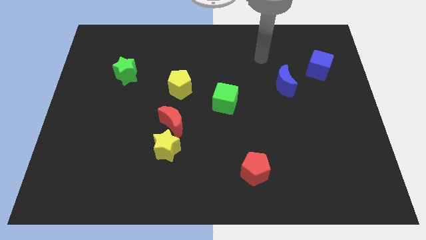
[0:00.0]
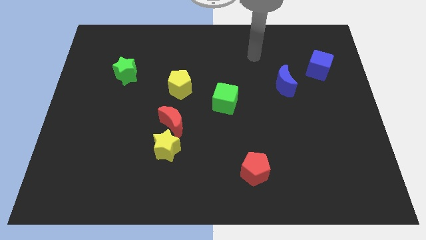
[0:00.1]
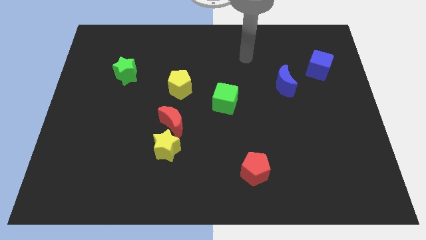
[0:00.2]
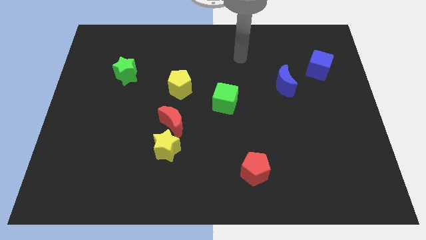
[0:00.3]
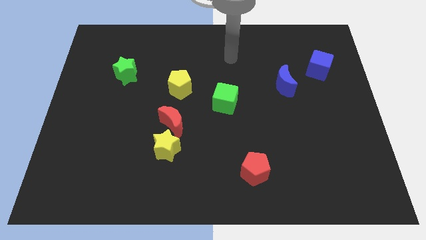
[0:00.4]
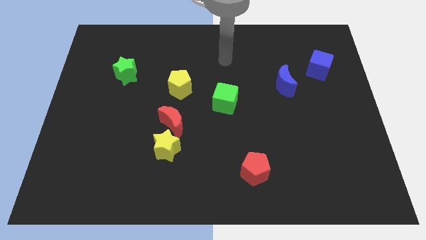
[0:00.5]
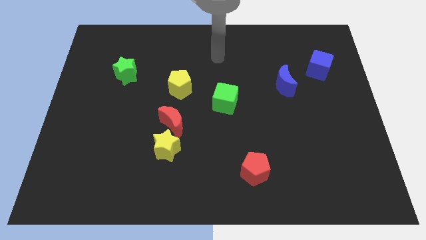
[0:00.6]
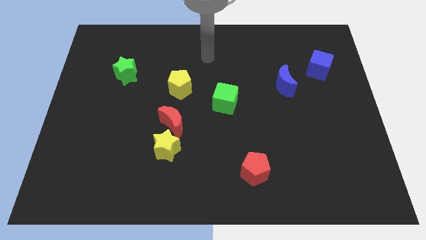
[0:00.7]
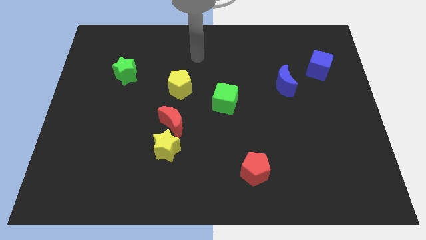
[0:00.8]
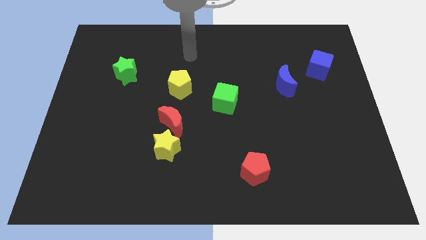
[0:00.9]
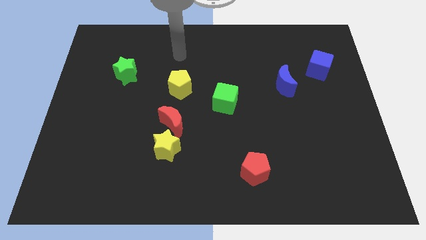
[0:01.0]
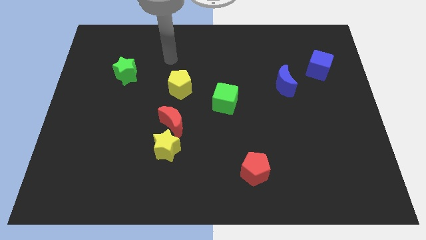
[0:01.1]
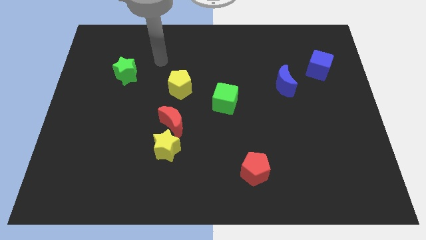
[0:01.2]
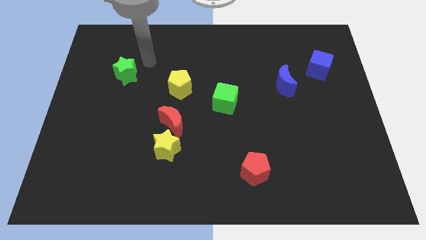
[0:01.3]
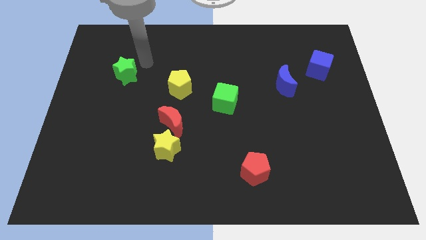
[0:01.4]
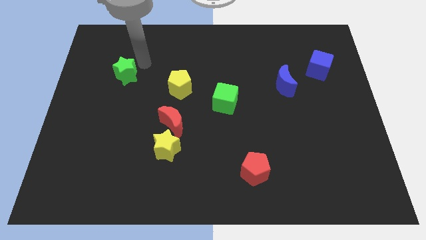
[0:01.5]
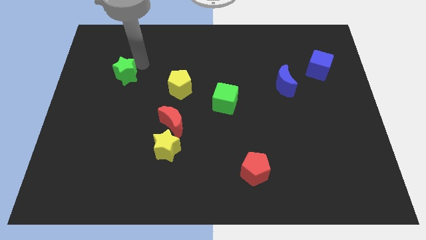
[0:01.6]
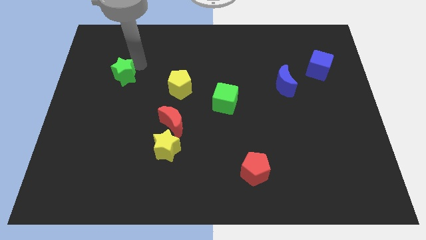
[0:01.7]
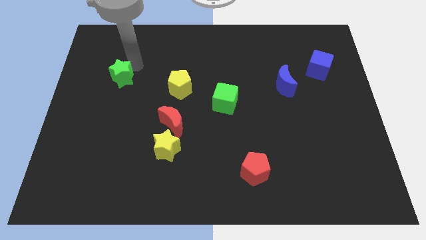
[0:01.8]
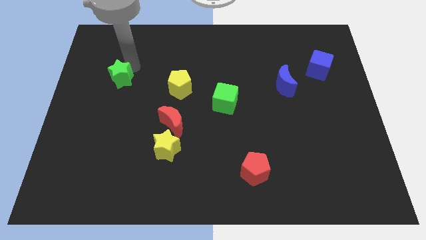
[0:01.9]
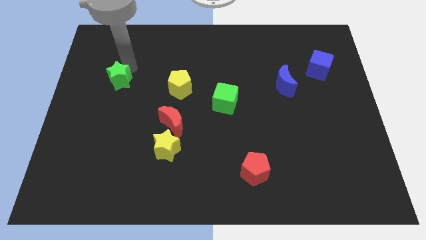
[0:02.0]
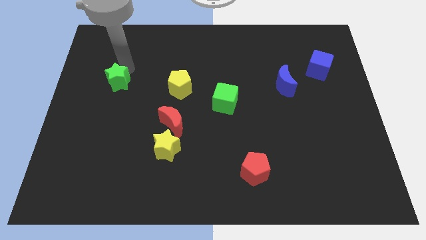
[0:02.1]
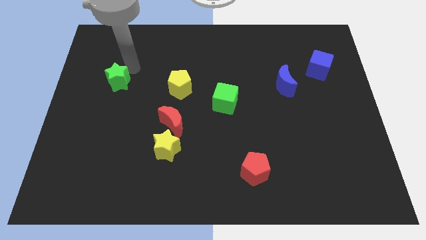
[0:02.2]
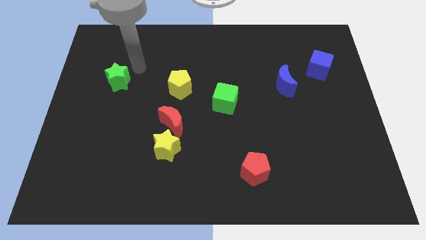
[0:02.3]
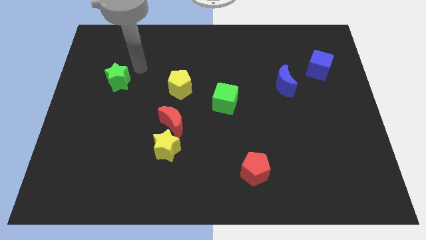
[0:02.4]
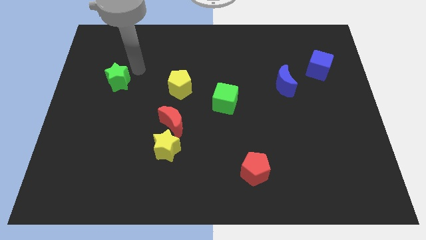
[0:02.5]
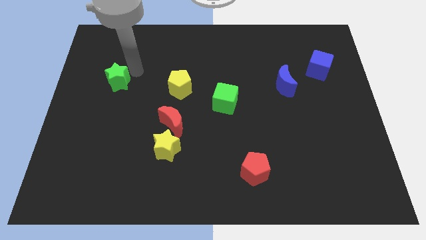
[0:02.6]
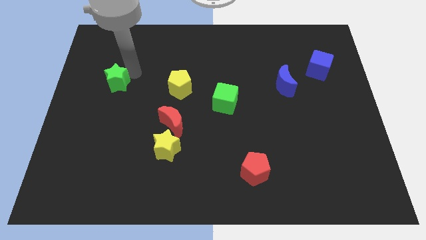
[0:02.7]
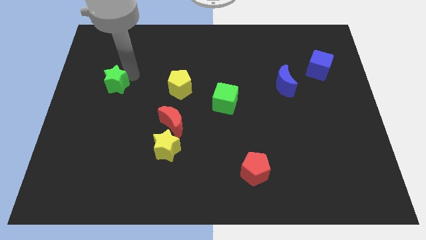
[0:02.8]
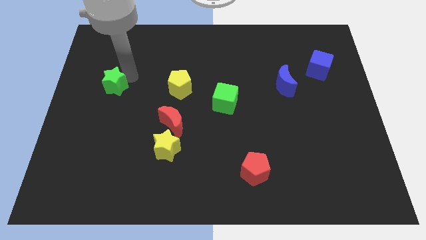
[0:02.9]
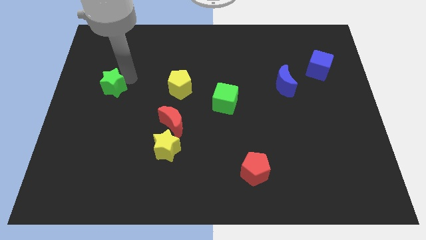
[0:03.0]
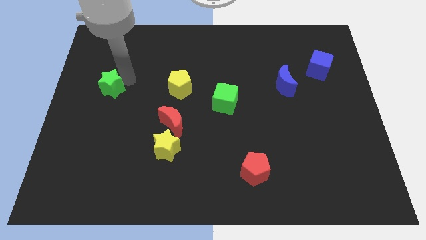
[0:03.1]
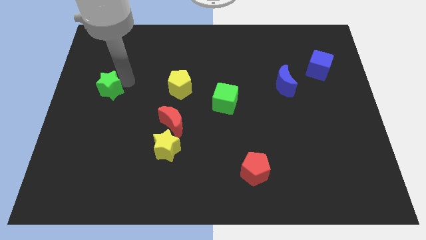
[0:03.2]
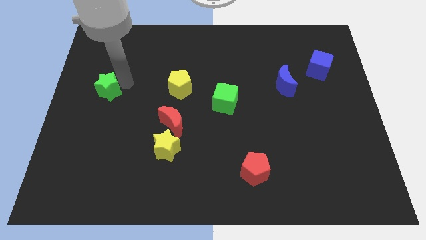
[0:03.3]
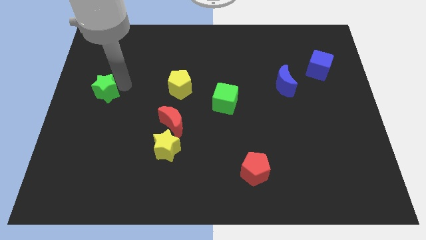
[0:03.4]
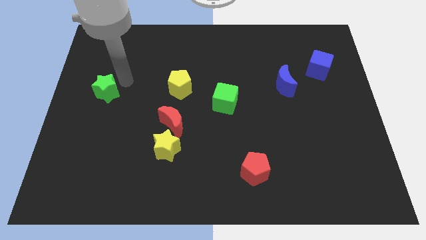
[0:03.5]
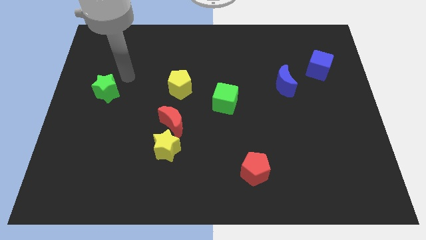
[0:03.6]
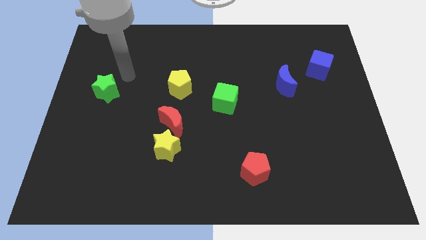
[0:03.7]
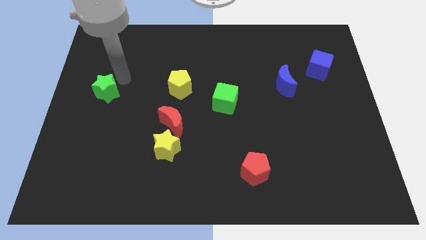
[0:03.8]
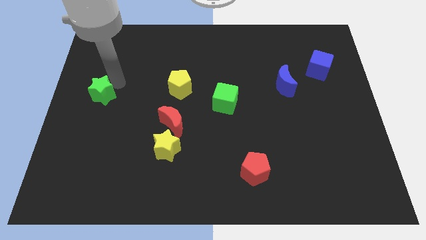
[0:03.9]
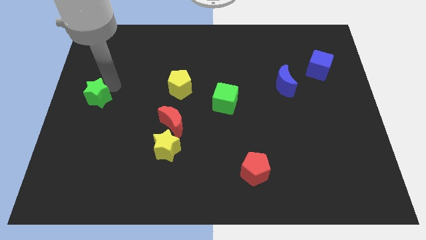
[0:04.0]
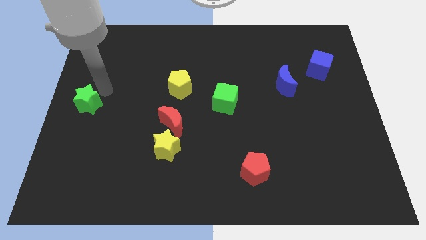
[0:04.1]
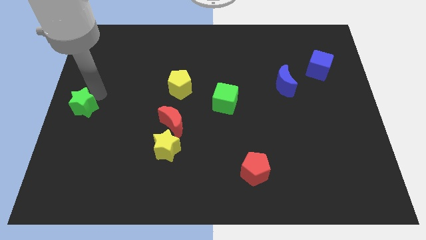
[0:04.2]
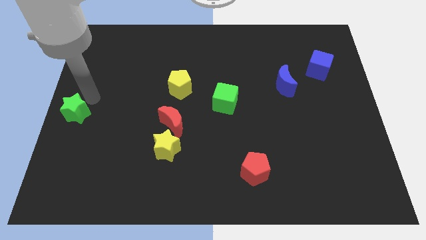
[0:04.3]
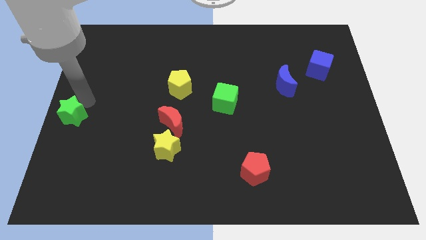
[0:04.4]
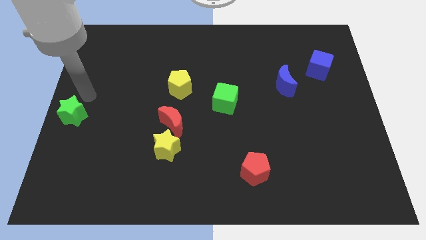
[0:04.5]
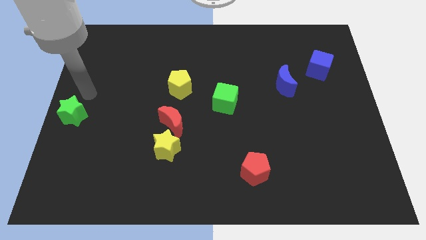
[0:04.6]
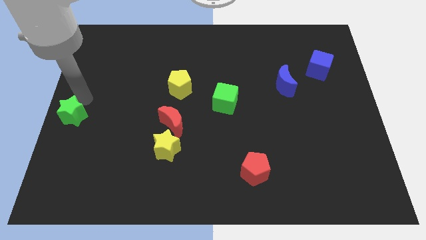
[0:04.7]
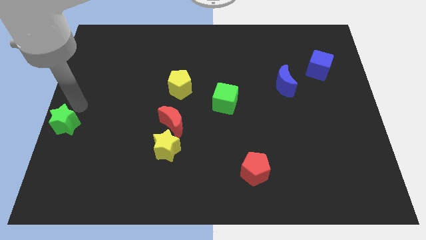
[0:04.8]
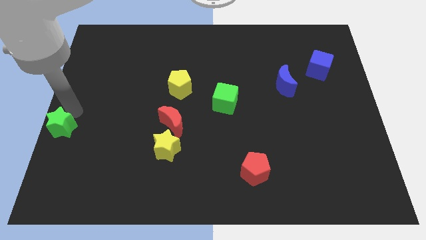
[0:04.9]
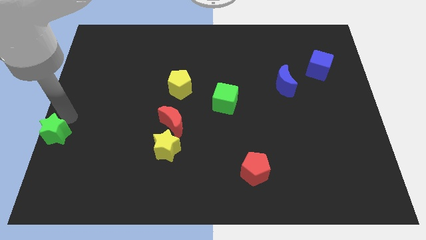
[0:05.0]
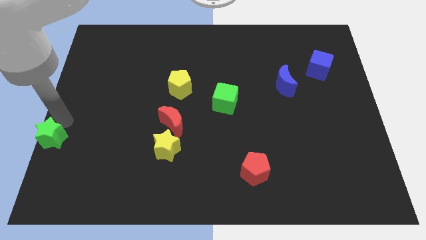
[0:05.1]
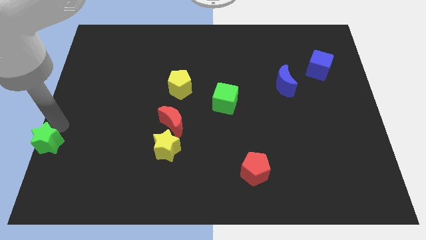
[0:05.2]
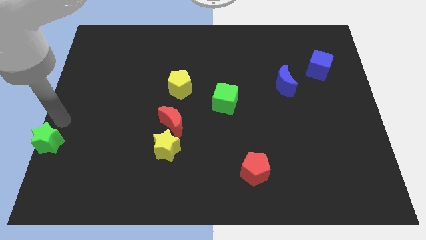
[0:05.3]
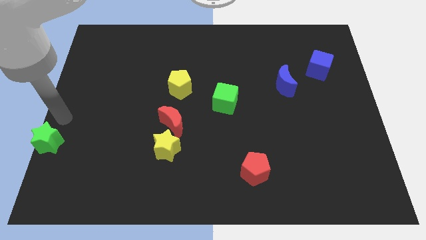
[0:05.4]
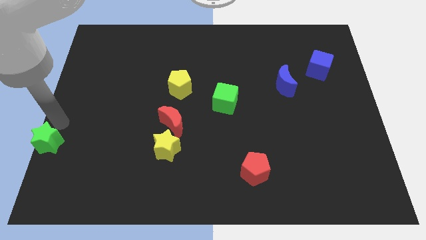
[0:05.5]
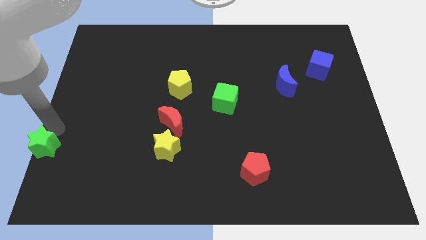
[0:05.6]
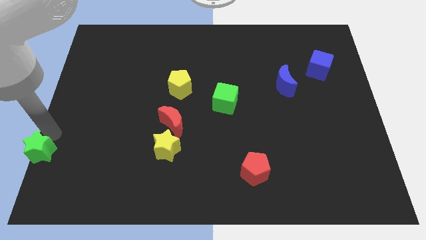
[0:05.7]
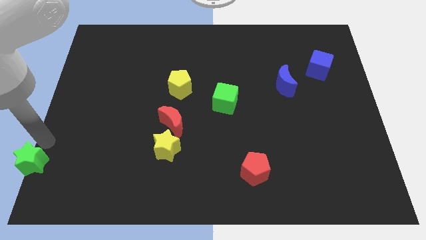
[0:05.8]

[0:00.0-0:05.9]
slide the green star to the bottom left
